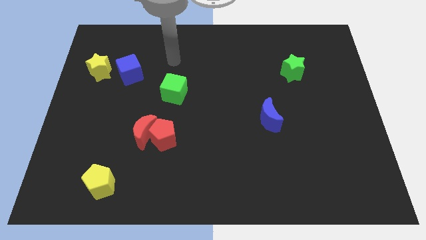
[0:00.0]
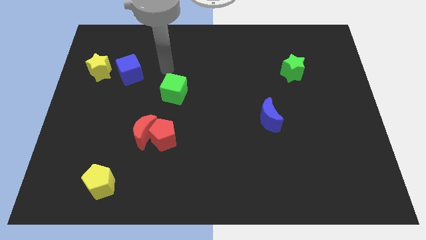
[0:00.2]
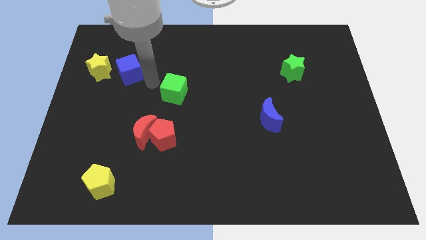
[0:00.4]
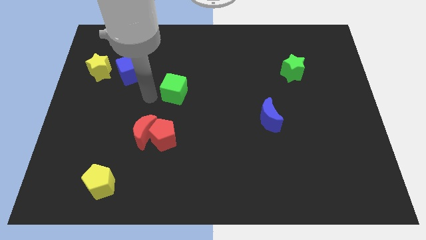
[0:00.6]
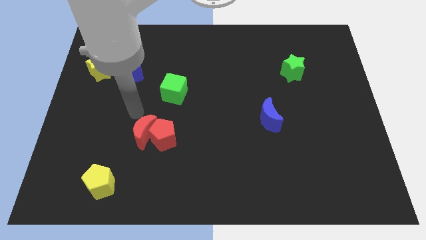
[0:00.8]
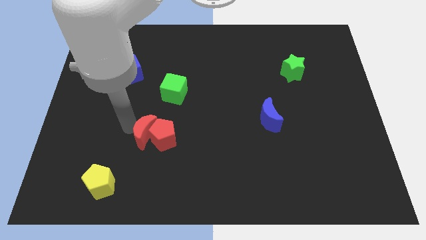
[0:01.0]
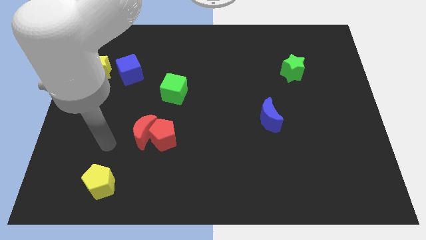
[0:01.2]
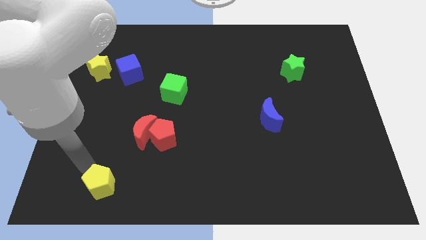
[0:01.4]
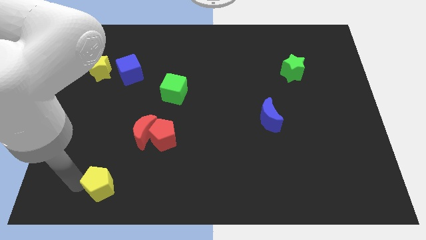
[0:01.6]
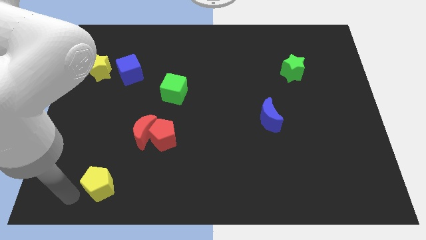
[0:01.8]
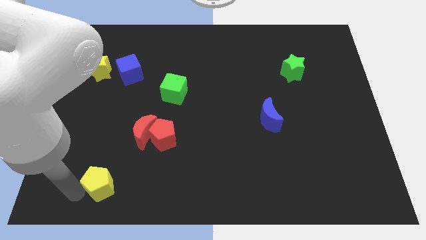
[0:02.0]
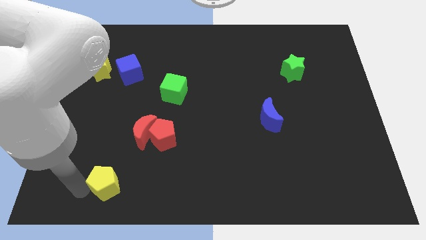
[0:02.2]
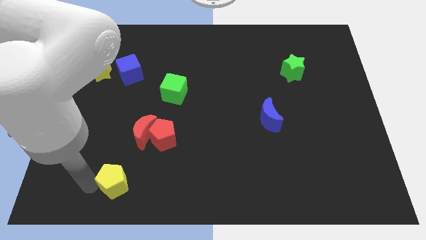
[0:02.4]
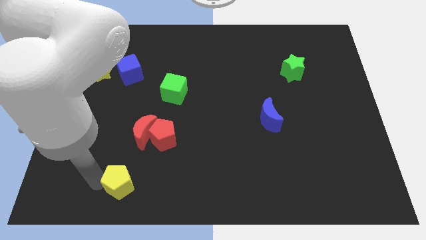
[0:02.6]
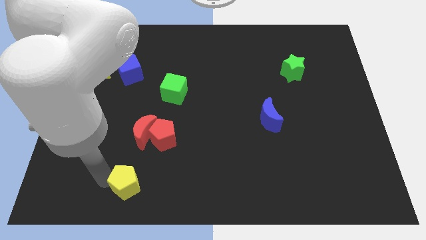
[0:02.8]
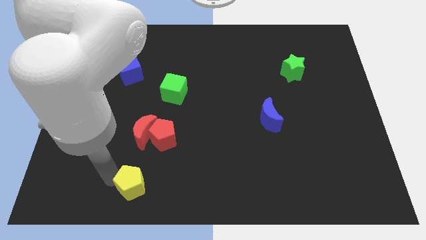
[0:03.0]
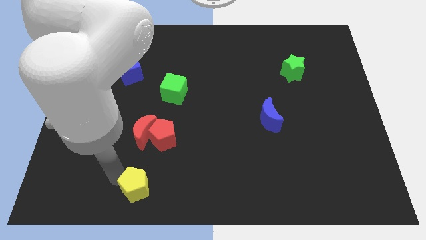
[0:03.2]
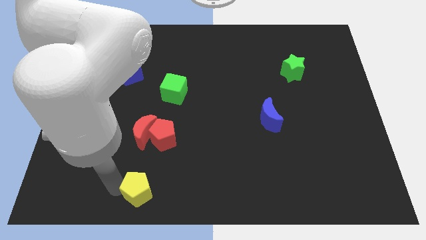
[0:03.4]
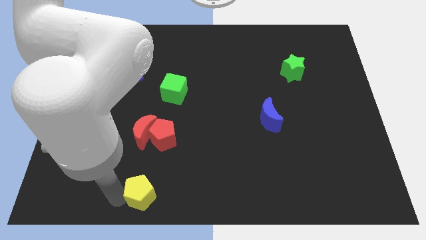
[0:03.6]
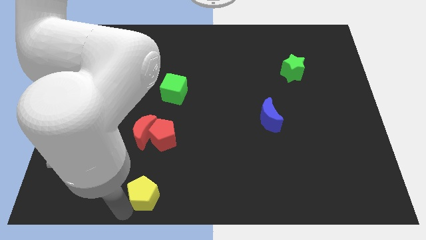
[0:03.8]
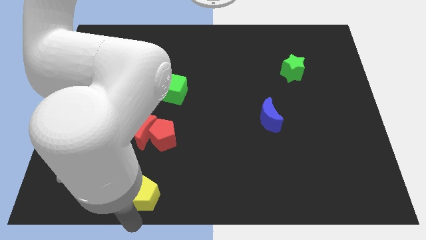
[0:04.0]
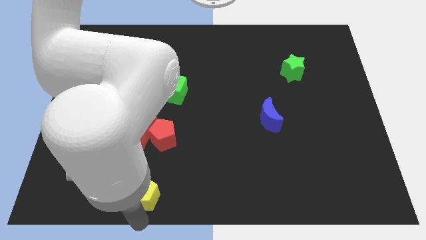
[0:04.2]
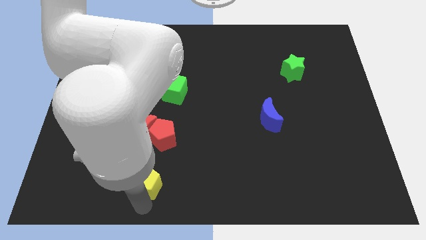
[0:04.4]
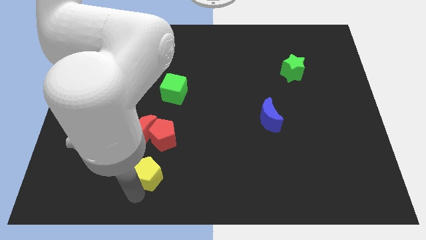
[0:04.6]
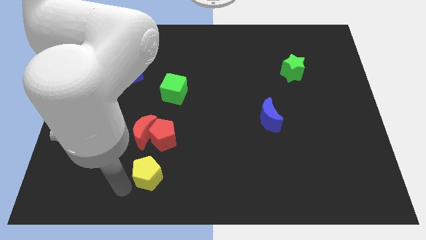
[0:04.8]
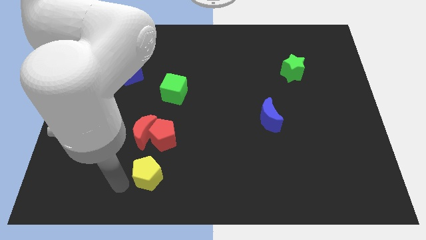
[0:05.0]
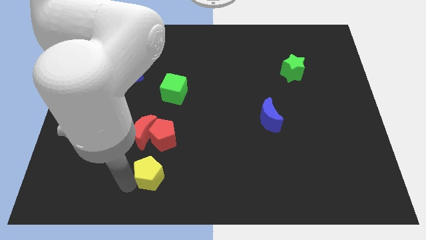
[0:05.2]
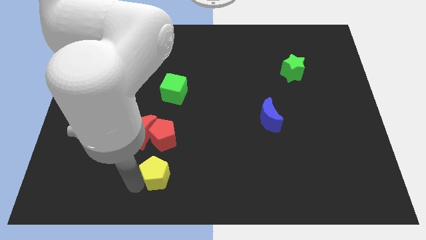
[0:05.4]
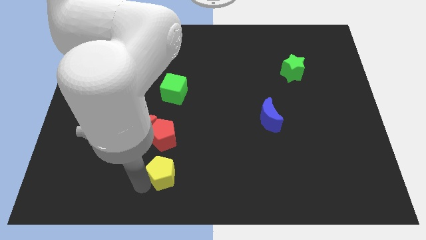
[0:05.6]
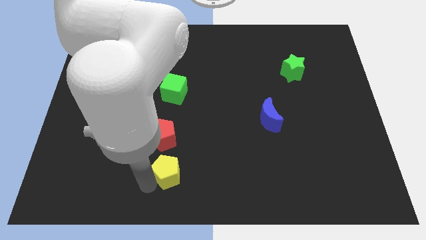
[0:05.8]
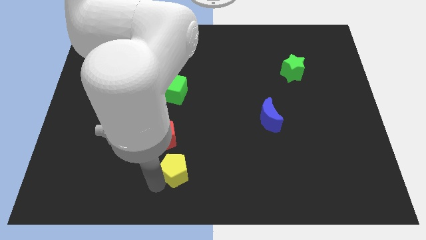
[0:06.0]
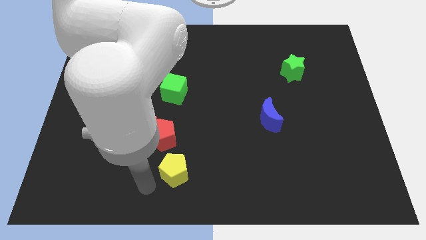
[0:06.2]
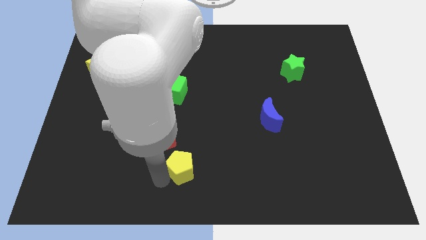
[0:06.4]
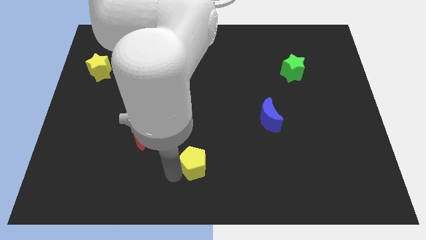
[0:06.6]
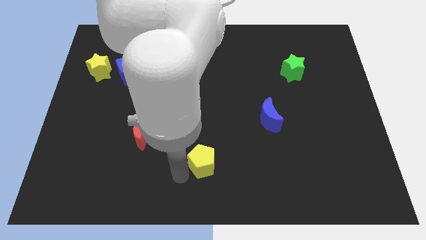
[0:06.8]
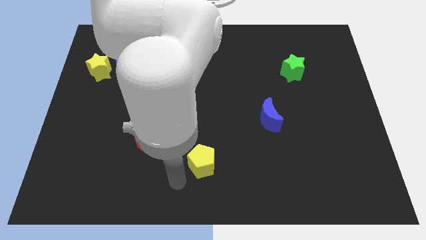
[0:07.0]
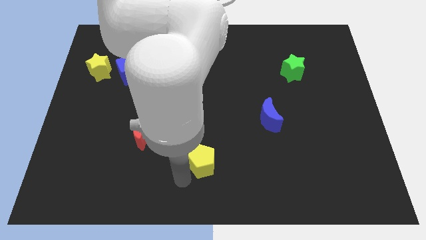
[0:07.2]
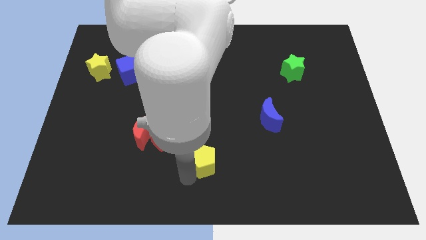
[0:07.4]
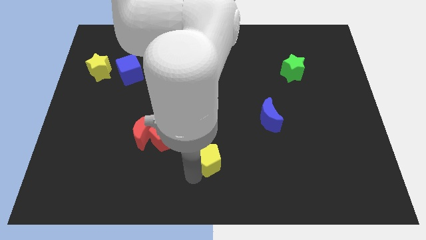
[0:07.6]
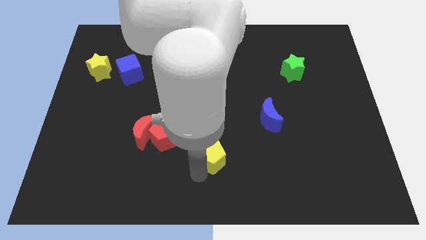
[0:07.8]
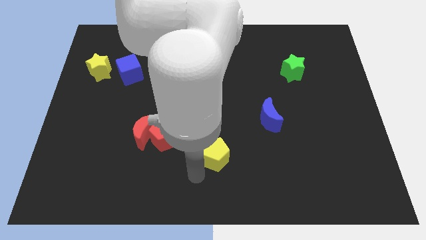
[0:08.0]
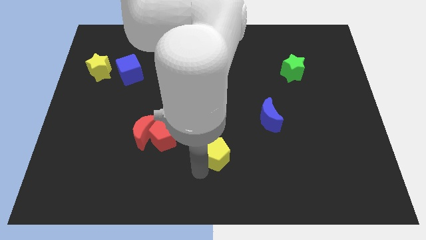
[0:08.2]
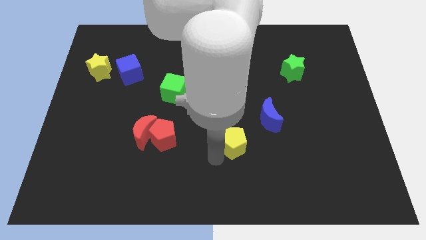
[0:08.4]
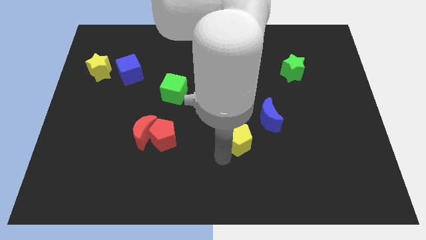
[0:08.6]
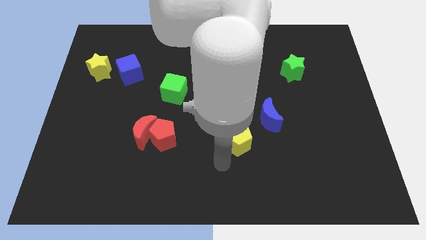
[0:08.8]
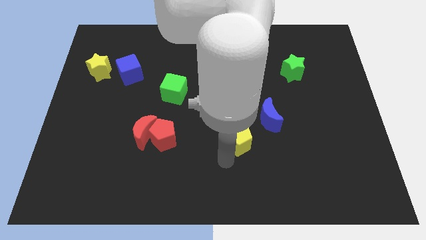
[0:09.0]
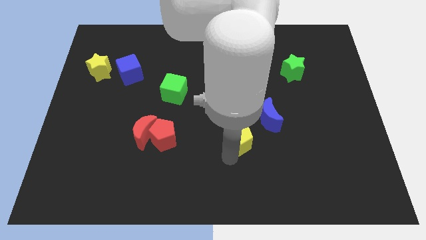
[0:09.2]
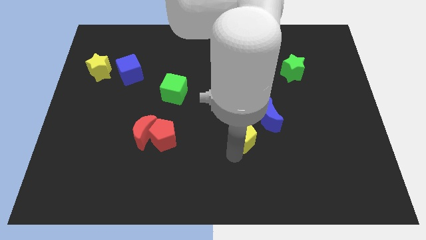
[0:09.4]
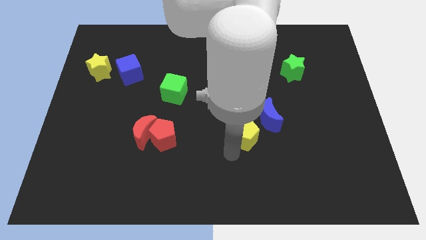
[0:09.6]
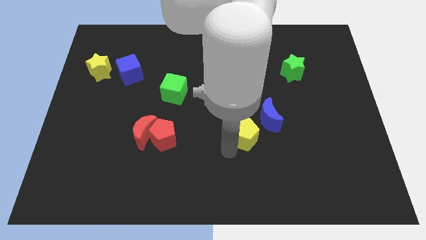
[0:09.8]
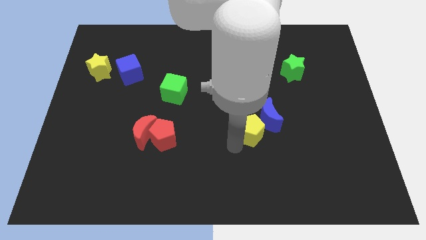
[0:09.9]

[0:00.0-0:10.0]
slide the yellow pentagon towards the blue moon

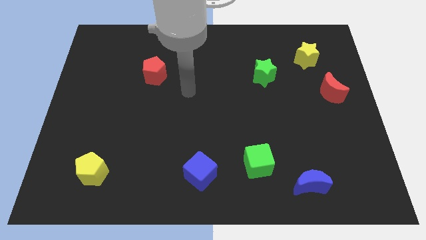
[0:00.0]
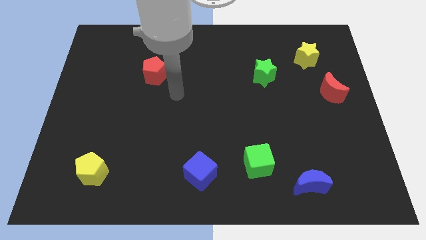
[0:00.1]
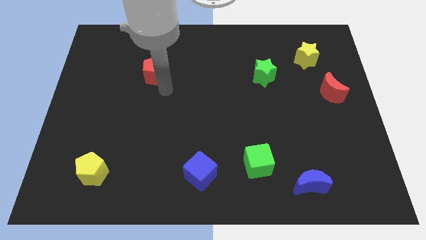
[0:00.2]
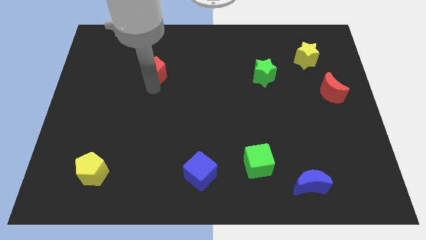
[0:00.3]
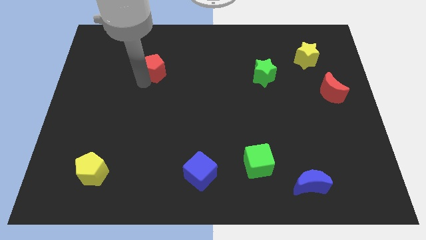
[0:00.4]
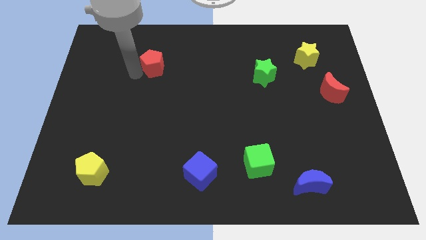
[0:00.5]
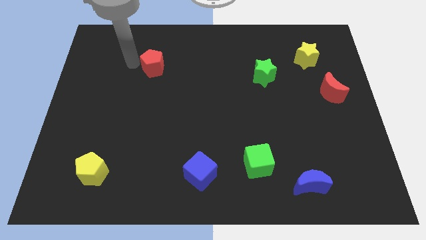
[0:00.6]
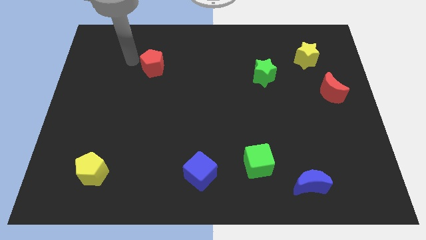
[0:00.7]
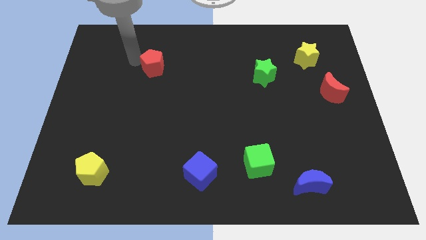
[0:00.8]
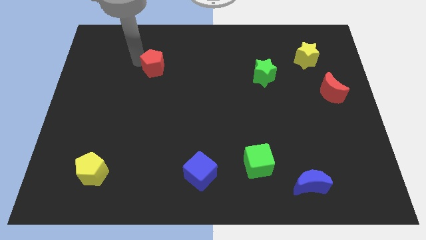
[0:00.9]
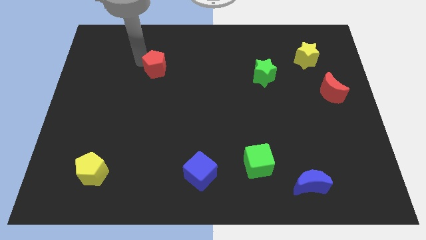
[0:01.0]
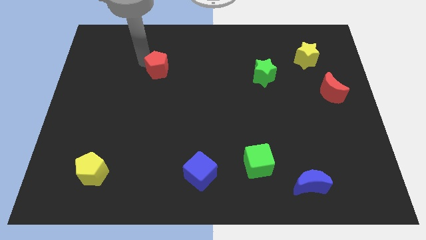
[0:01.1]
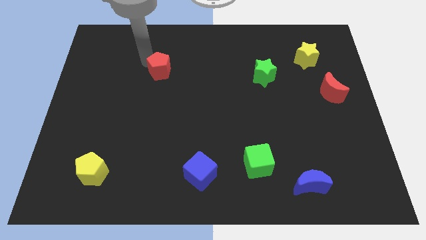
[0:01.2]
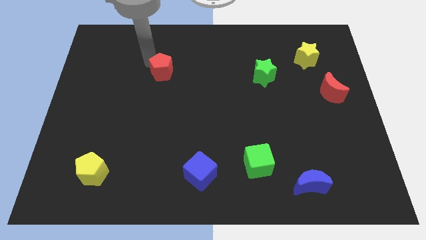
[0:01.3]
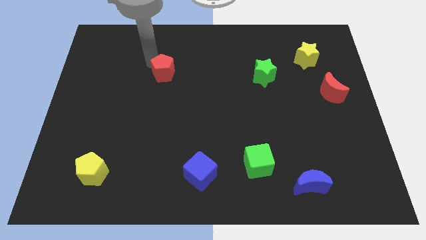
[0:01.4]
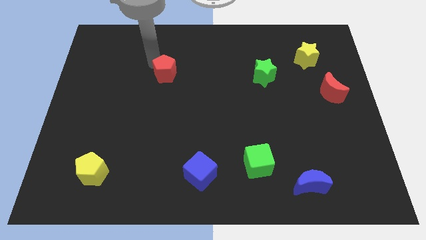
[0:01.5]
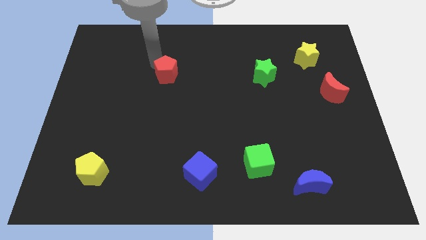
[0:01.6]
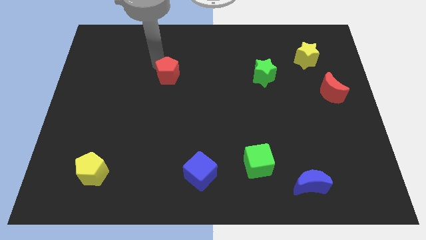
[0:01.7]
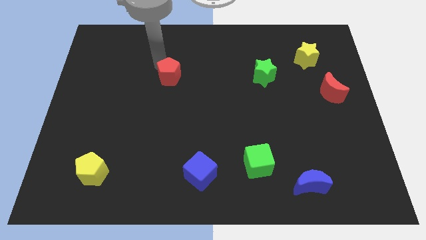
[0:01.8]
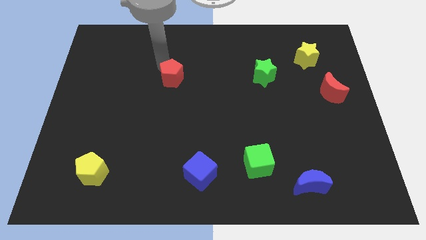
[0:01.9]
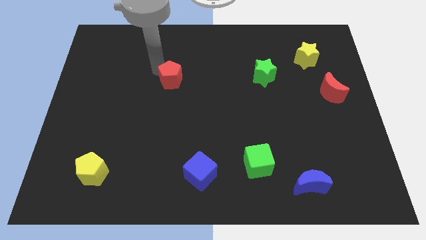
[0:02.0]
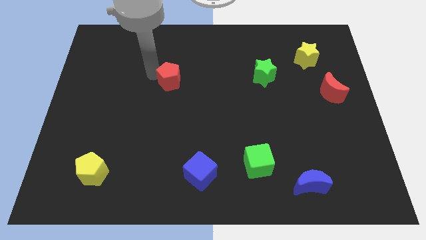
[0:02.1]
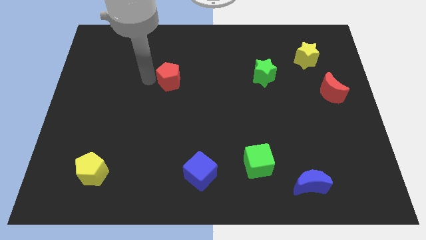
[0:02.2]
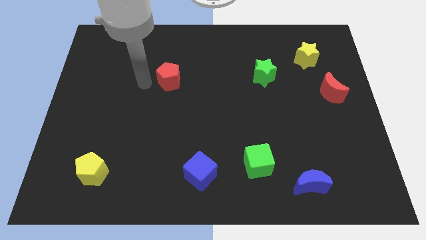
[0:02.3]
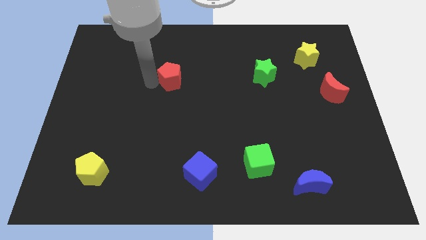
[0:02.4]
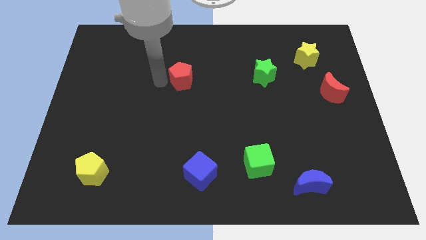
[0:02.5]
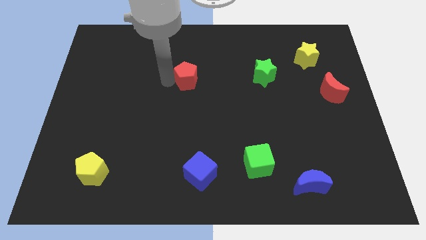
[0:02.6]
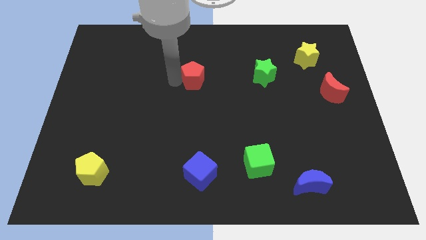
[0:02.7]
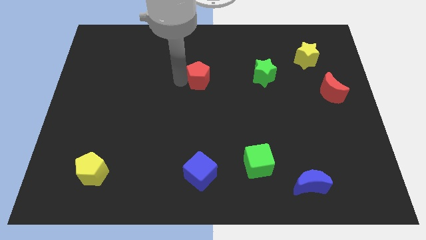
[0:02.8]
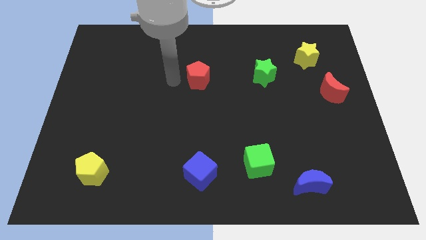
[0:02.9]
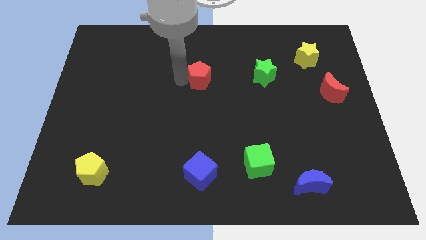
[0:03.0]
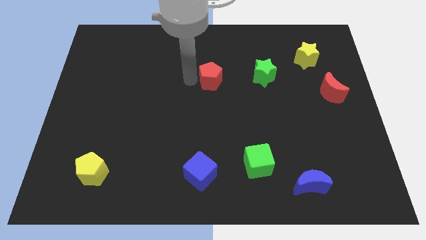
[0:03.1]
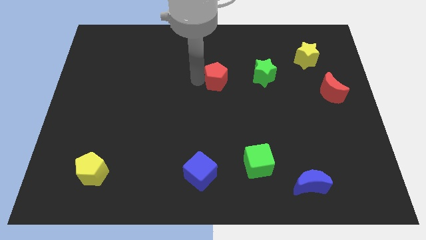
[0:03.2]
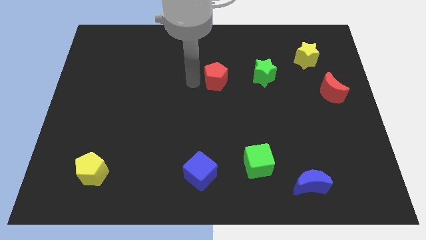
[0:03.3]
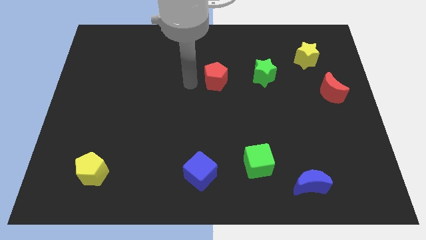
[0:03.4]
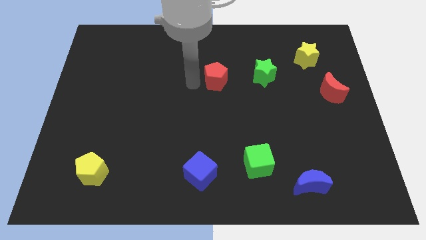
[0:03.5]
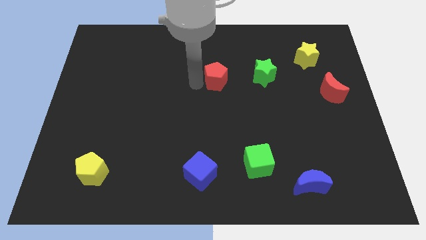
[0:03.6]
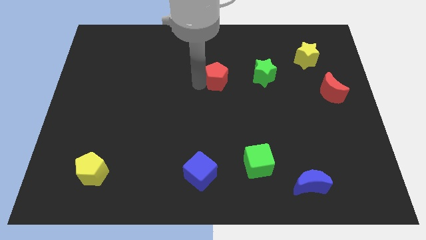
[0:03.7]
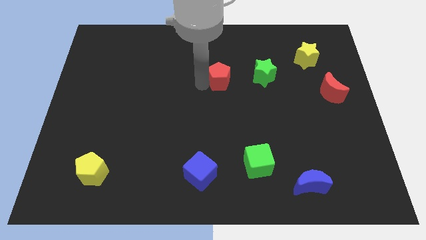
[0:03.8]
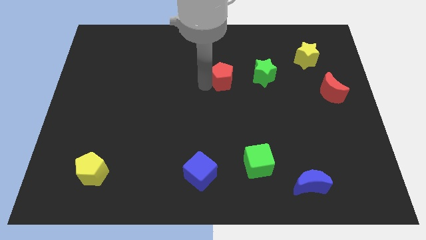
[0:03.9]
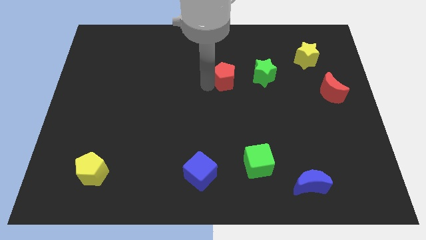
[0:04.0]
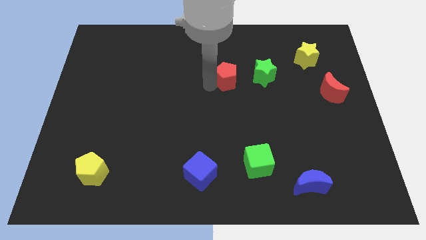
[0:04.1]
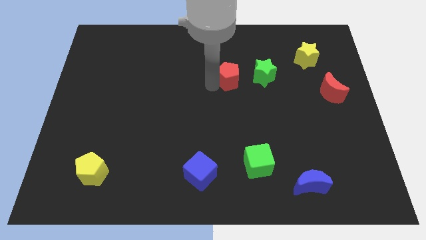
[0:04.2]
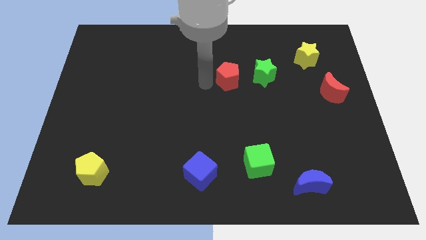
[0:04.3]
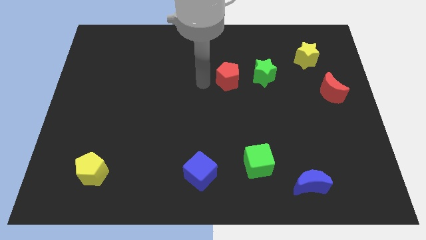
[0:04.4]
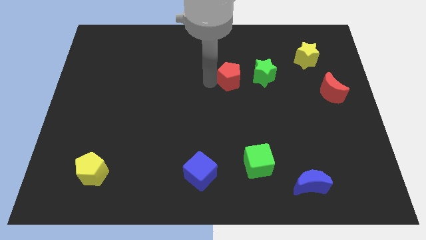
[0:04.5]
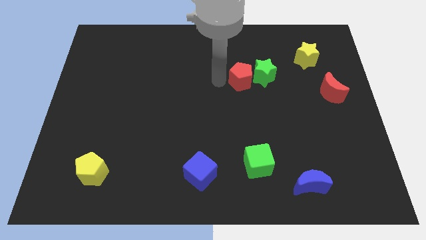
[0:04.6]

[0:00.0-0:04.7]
push the red pentagon next to the green star
